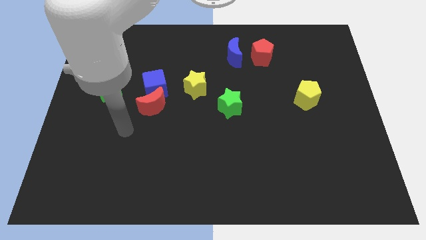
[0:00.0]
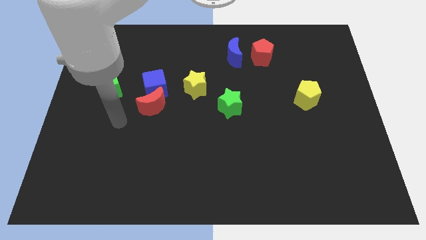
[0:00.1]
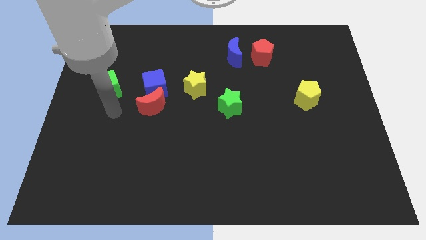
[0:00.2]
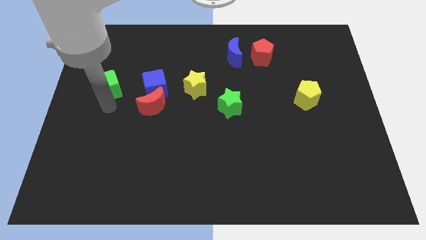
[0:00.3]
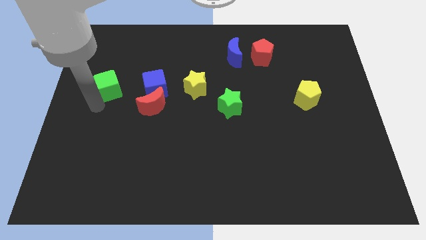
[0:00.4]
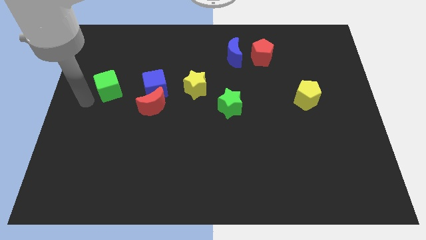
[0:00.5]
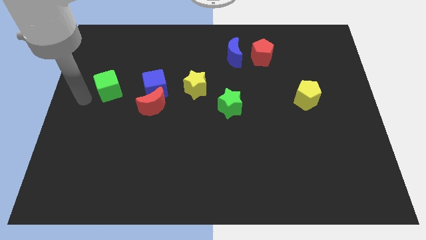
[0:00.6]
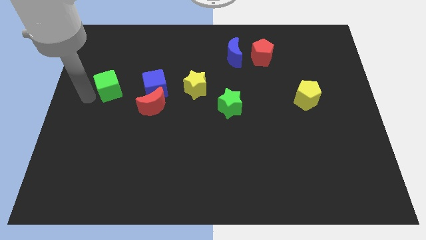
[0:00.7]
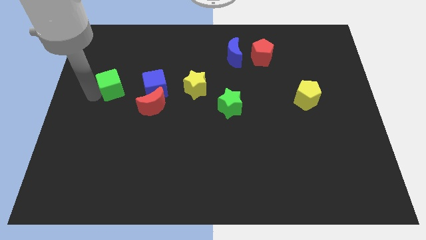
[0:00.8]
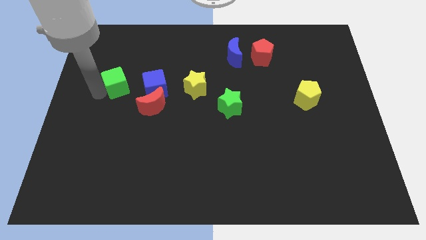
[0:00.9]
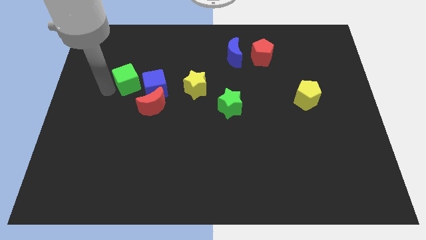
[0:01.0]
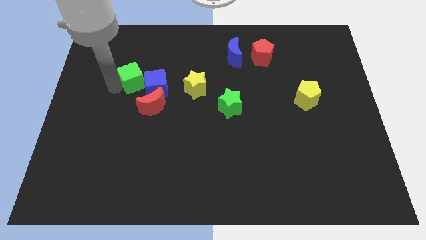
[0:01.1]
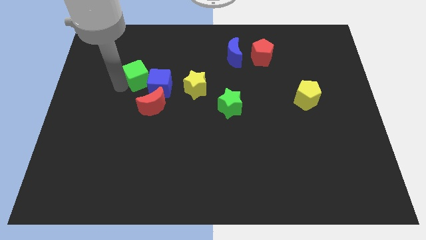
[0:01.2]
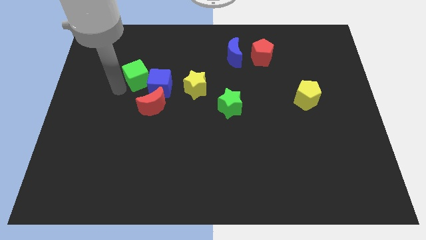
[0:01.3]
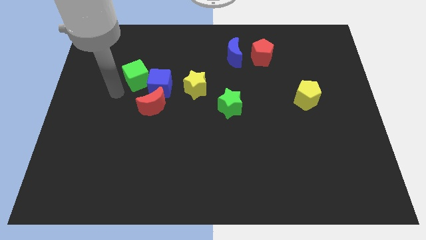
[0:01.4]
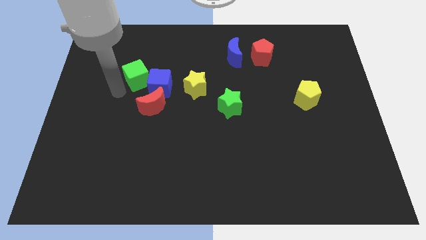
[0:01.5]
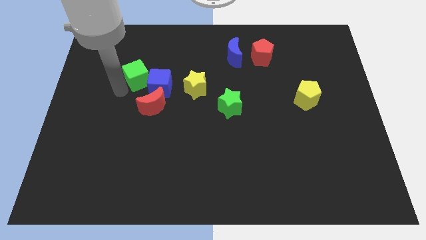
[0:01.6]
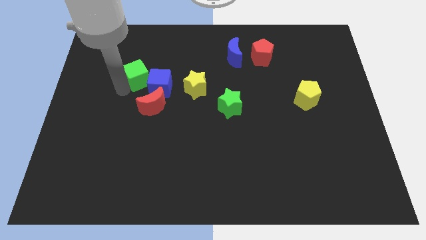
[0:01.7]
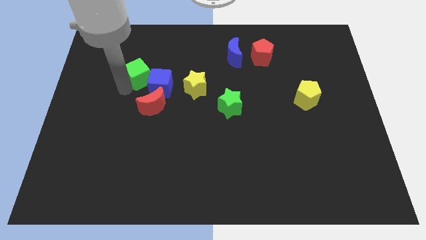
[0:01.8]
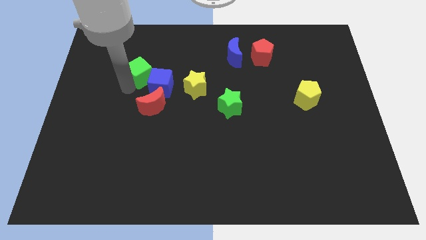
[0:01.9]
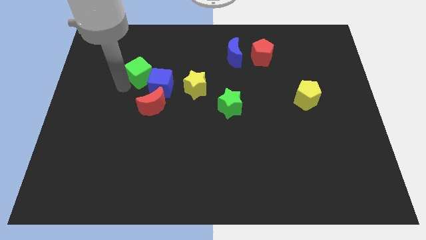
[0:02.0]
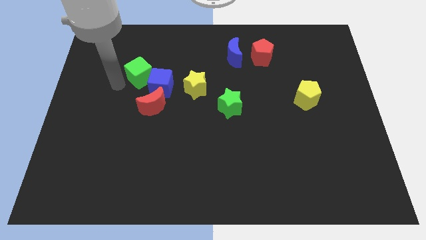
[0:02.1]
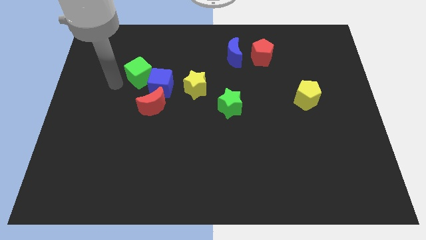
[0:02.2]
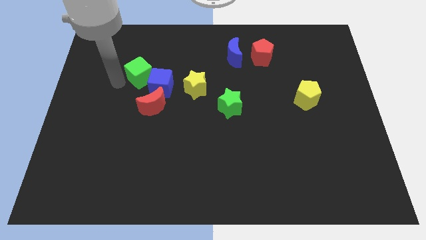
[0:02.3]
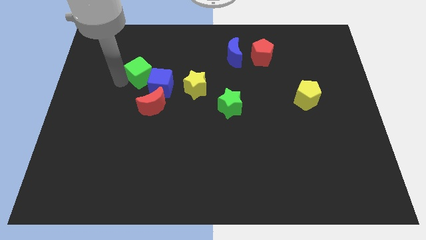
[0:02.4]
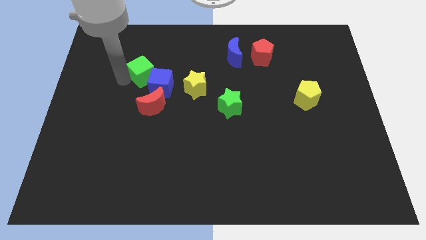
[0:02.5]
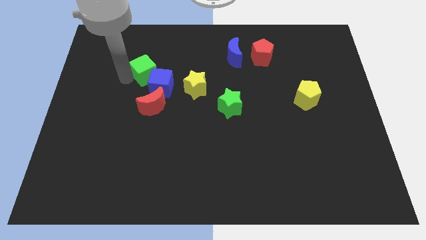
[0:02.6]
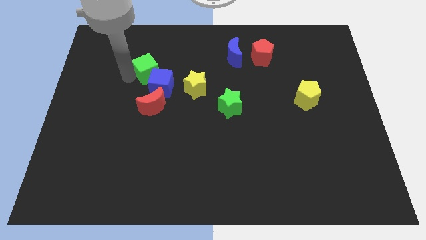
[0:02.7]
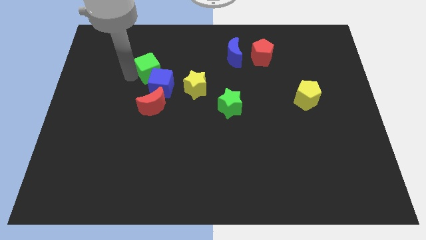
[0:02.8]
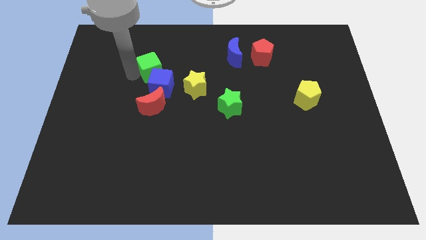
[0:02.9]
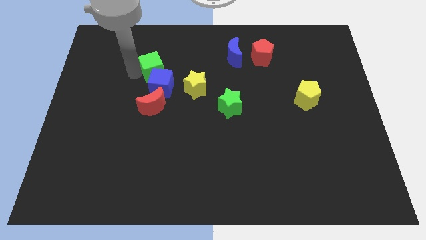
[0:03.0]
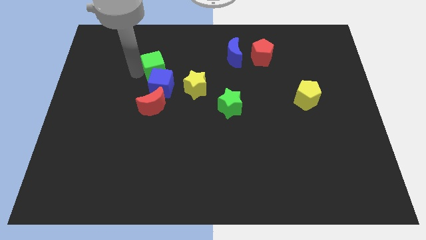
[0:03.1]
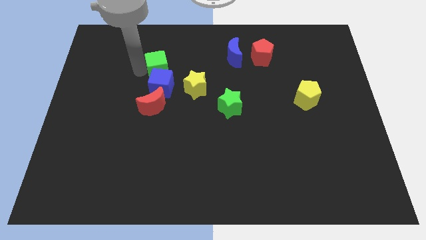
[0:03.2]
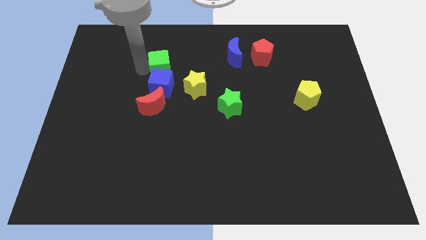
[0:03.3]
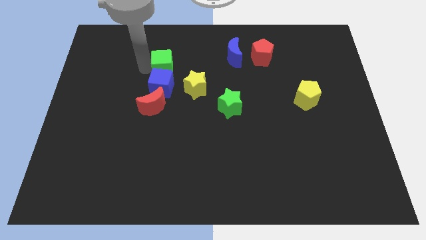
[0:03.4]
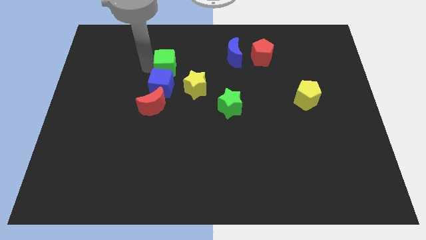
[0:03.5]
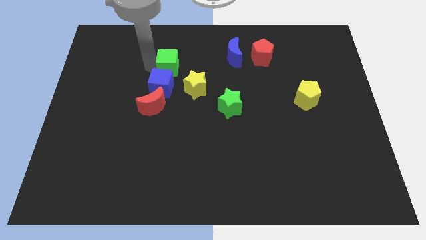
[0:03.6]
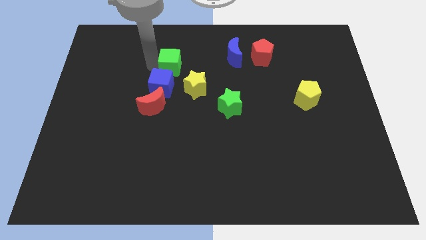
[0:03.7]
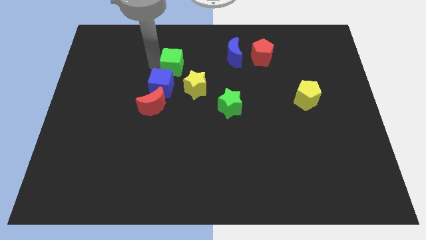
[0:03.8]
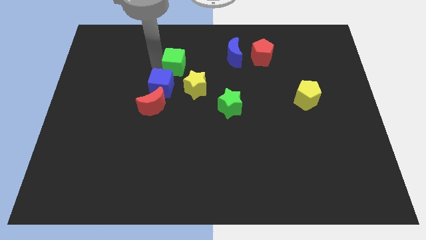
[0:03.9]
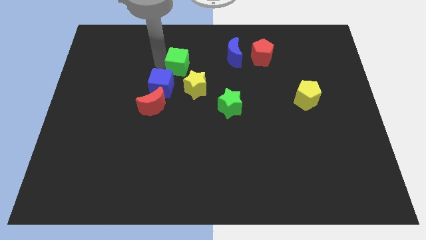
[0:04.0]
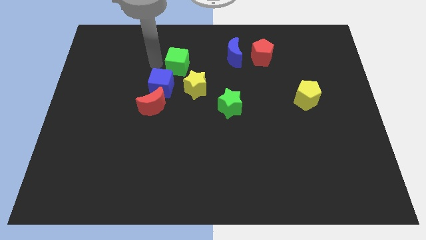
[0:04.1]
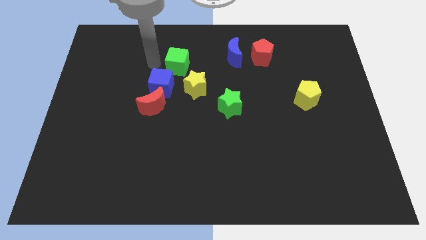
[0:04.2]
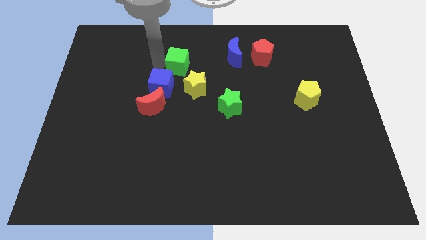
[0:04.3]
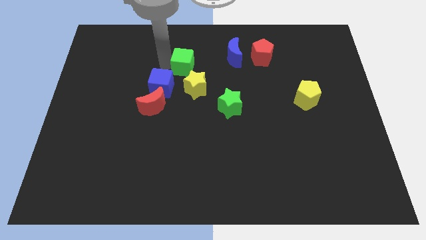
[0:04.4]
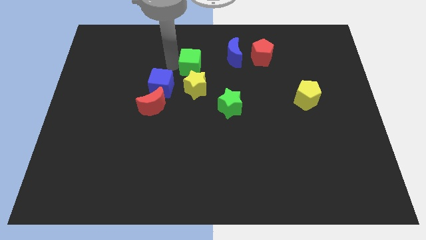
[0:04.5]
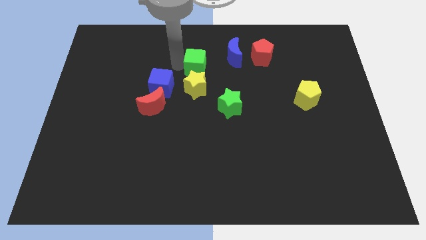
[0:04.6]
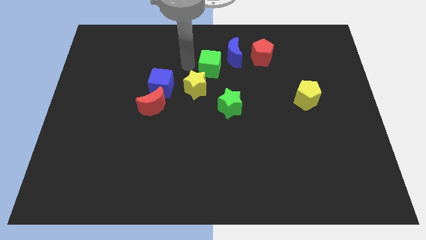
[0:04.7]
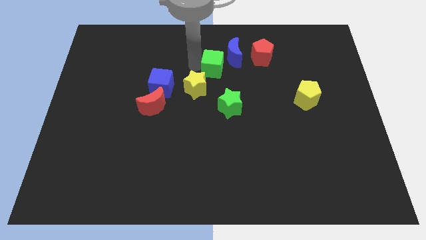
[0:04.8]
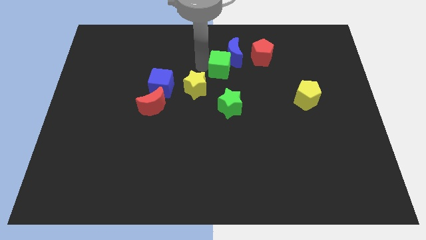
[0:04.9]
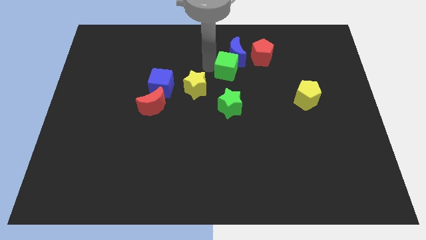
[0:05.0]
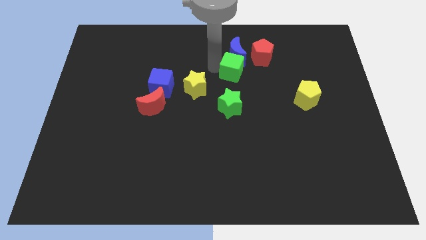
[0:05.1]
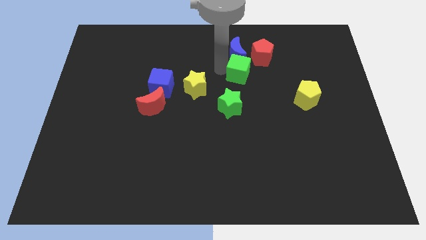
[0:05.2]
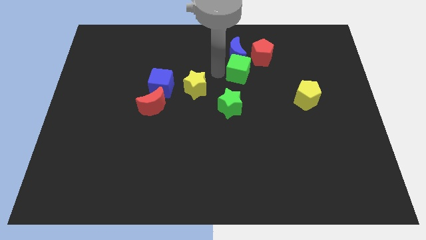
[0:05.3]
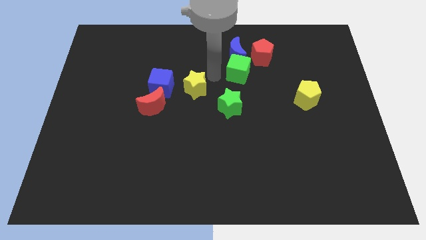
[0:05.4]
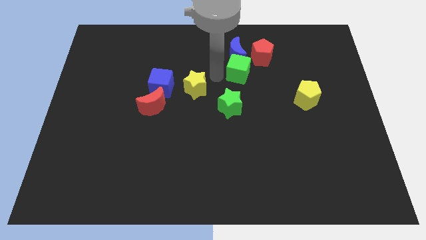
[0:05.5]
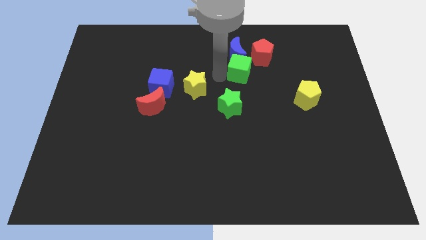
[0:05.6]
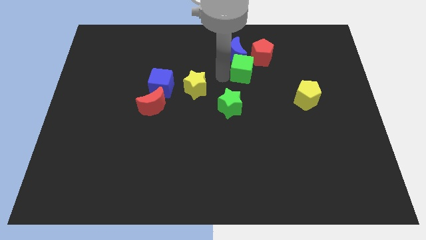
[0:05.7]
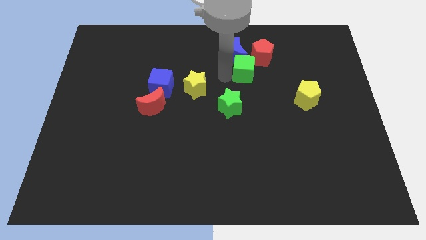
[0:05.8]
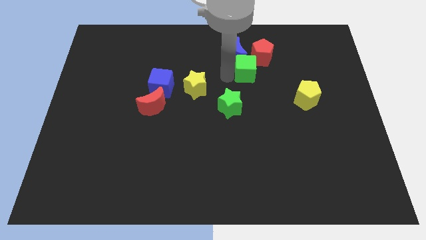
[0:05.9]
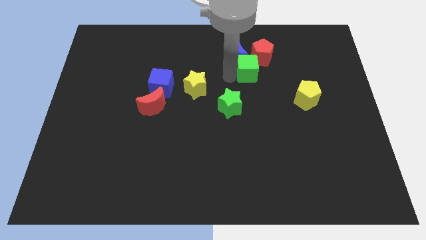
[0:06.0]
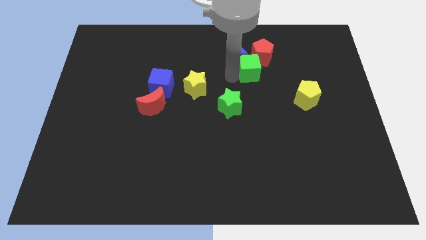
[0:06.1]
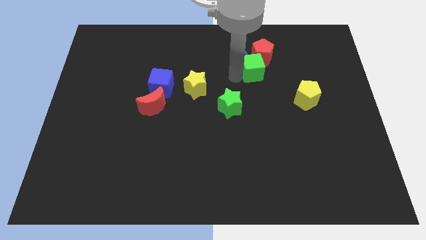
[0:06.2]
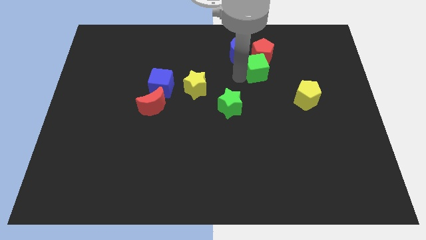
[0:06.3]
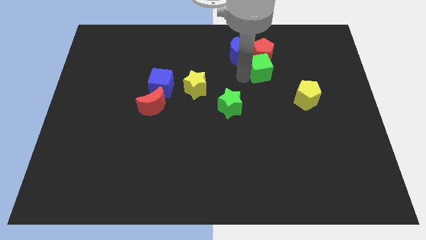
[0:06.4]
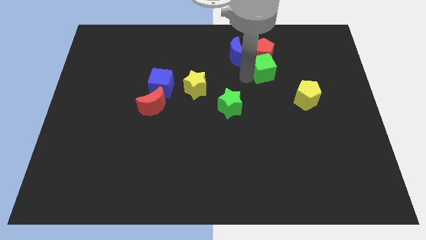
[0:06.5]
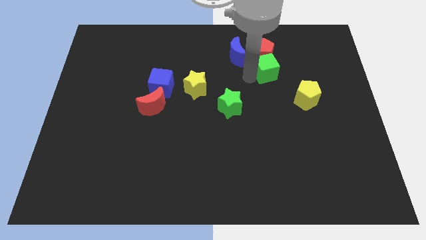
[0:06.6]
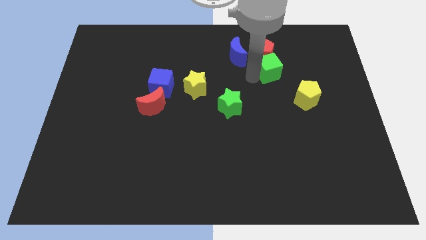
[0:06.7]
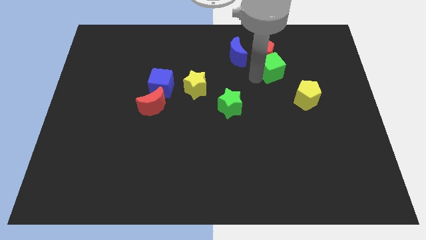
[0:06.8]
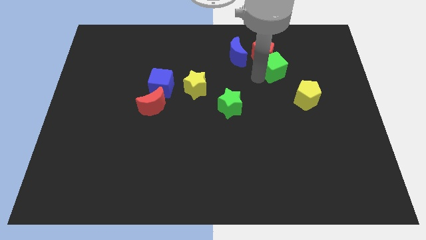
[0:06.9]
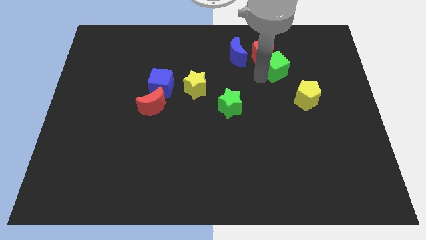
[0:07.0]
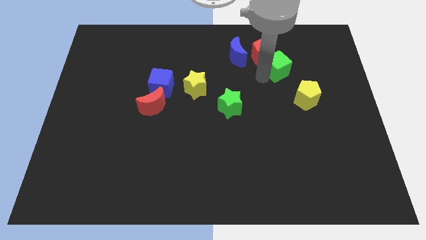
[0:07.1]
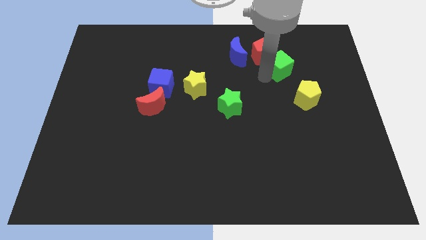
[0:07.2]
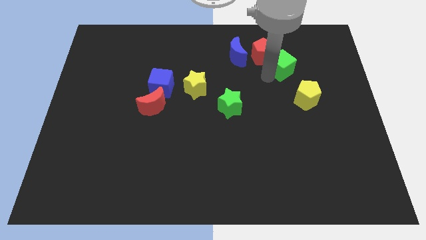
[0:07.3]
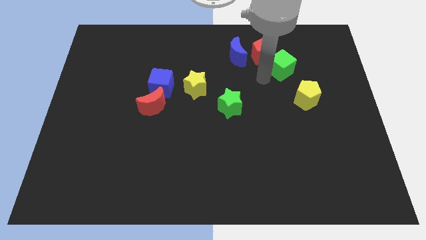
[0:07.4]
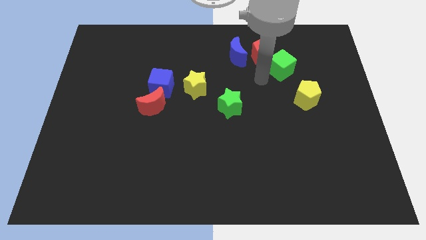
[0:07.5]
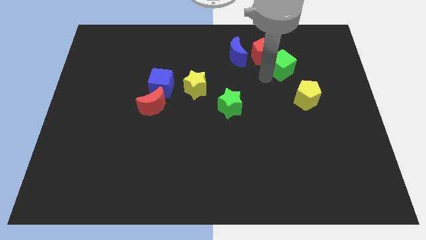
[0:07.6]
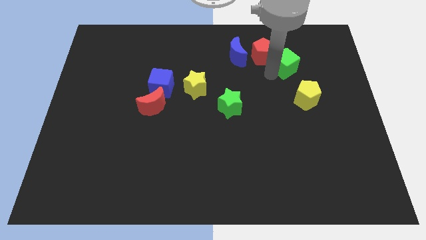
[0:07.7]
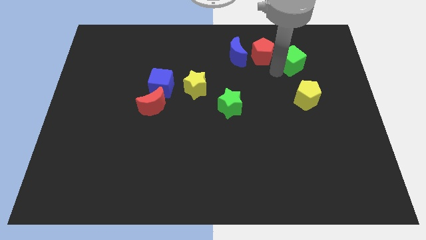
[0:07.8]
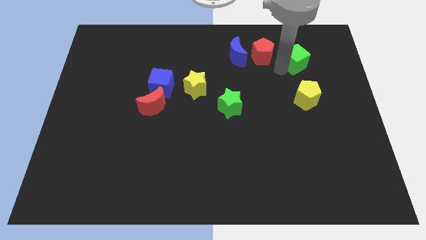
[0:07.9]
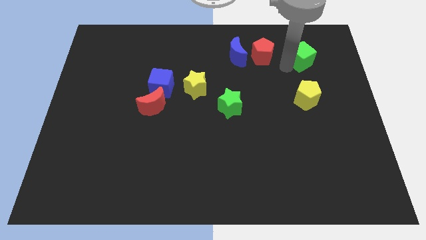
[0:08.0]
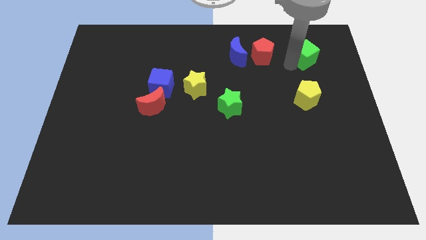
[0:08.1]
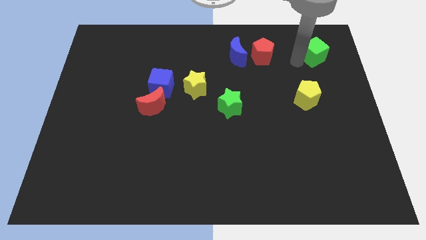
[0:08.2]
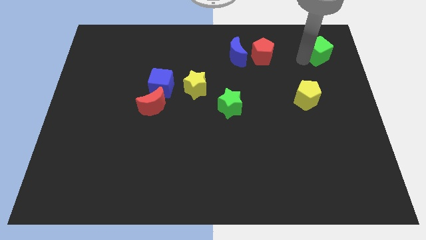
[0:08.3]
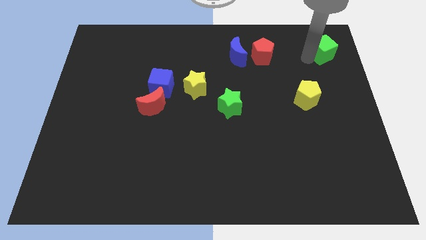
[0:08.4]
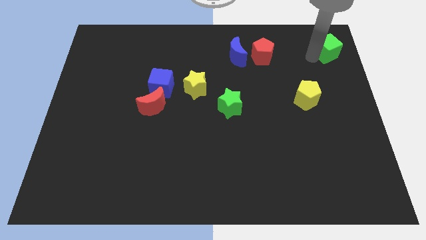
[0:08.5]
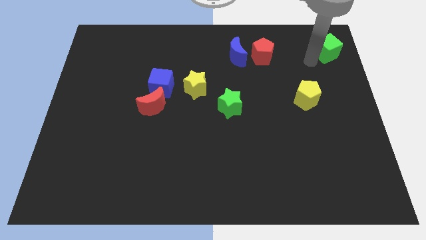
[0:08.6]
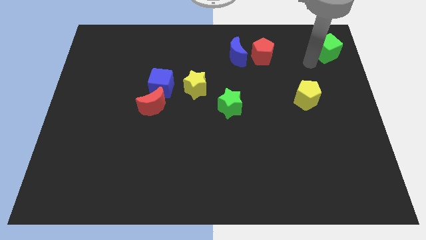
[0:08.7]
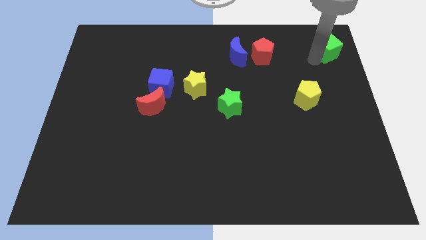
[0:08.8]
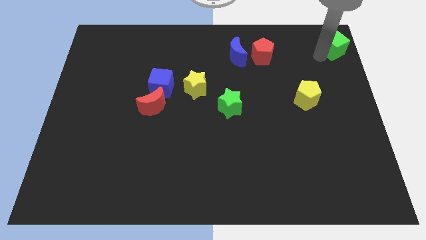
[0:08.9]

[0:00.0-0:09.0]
push the green cube to the top right of the board
